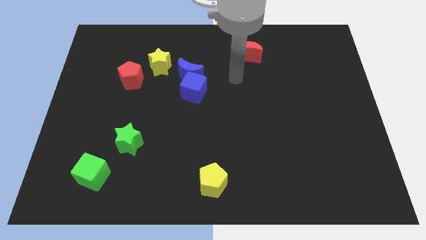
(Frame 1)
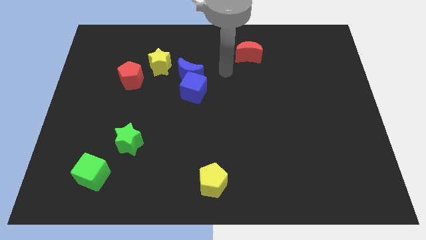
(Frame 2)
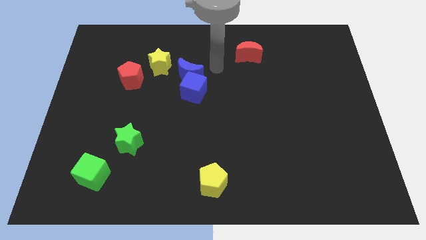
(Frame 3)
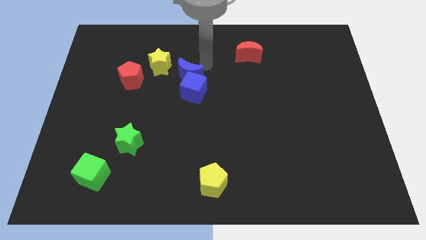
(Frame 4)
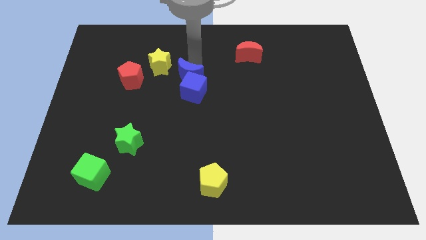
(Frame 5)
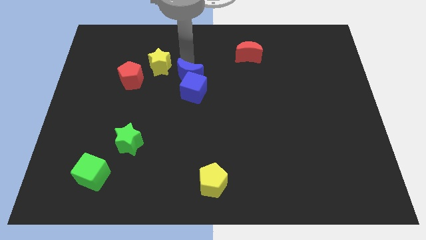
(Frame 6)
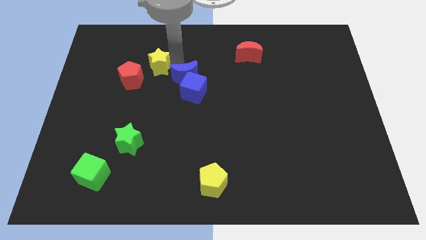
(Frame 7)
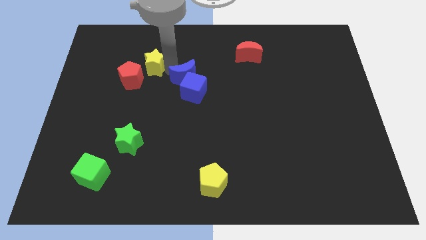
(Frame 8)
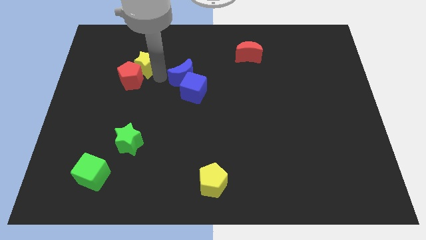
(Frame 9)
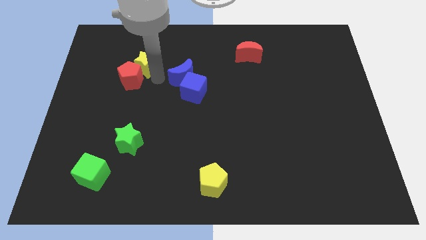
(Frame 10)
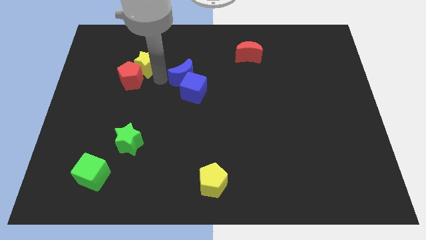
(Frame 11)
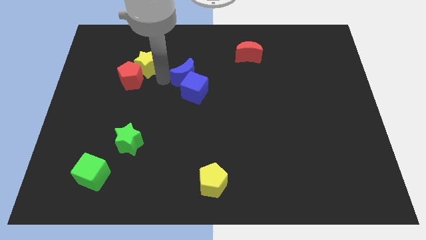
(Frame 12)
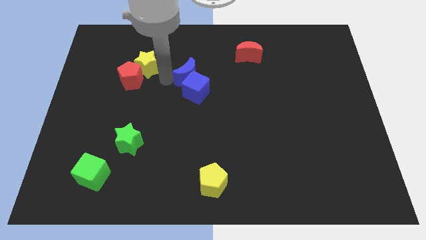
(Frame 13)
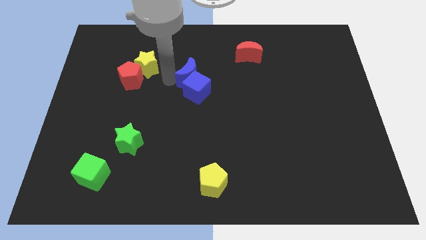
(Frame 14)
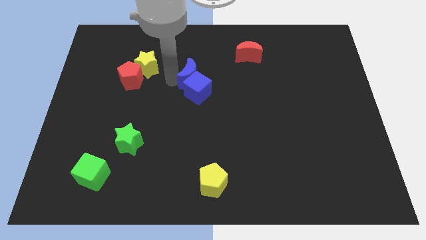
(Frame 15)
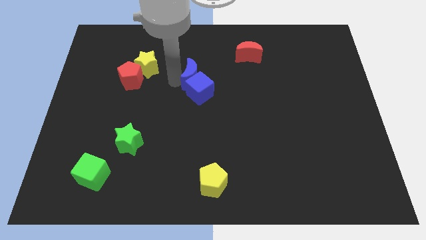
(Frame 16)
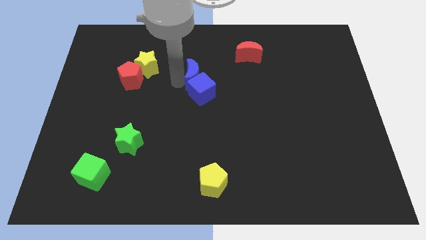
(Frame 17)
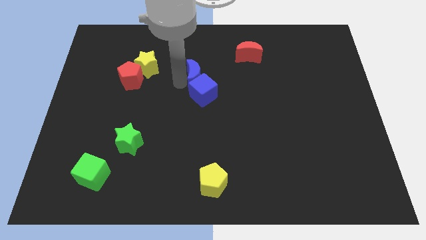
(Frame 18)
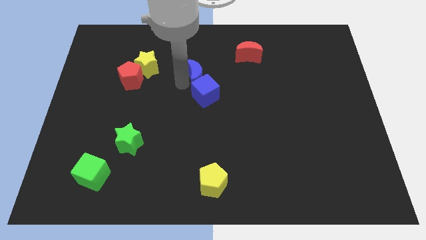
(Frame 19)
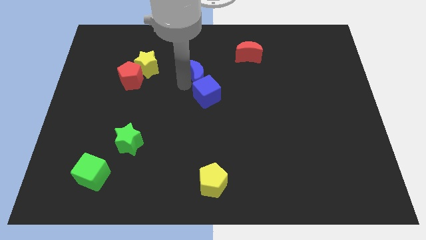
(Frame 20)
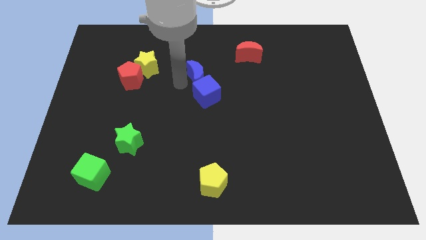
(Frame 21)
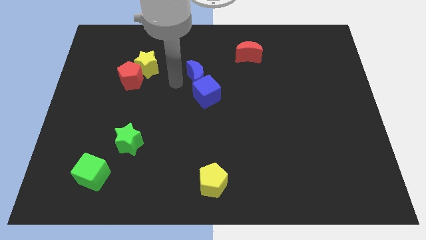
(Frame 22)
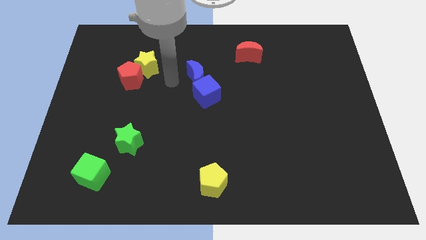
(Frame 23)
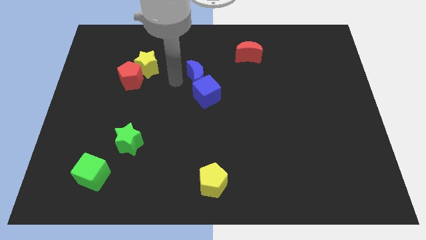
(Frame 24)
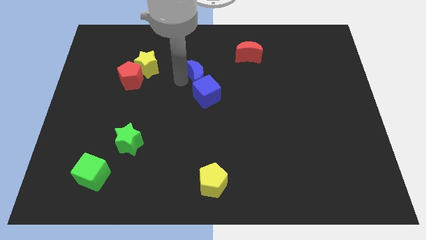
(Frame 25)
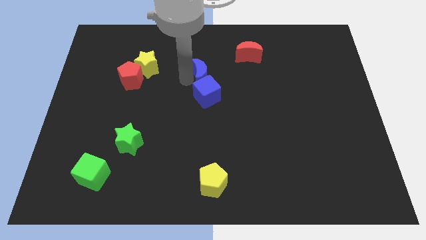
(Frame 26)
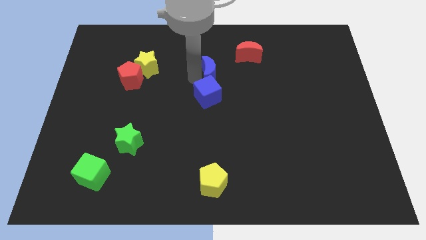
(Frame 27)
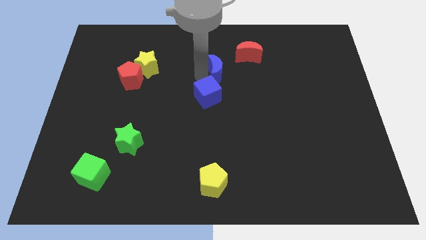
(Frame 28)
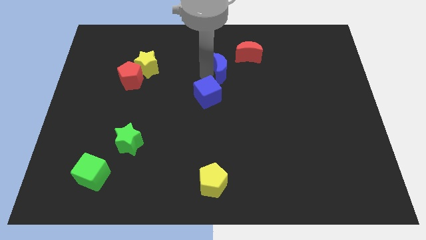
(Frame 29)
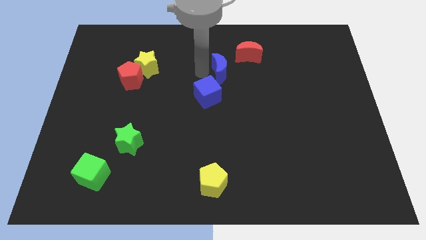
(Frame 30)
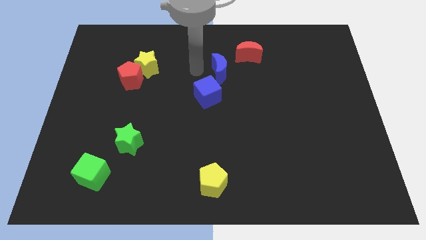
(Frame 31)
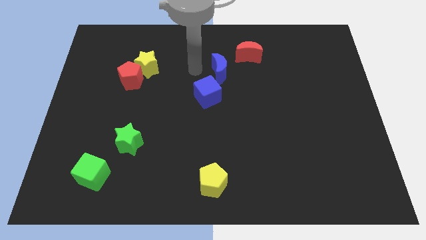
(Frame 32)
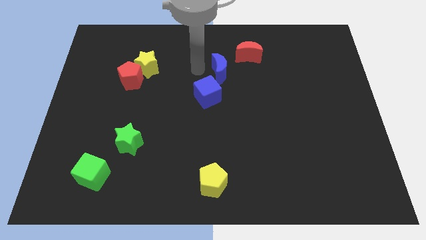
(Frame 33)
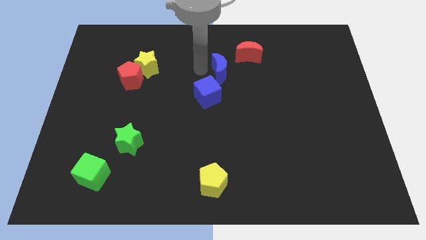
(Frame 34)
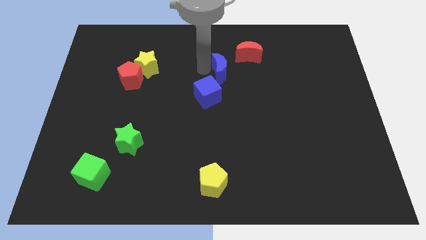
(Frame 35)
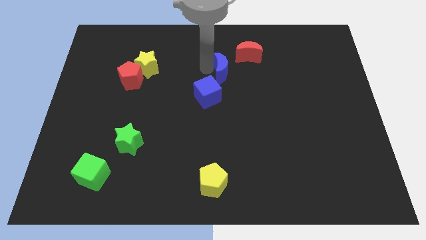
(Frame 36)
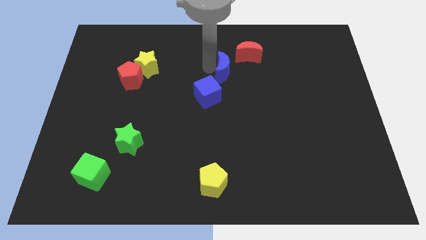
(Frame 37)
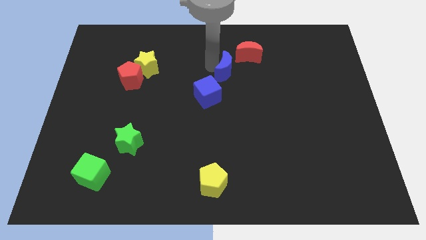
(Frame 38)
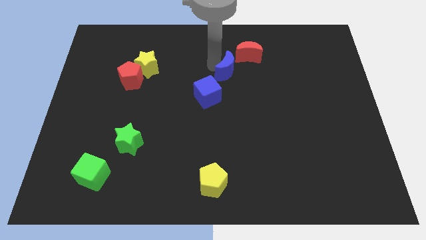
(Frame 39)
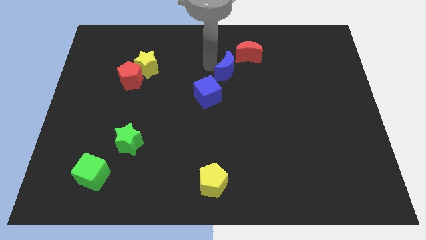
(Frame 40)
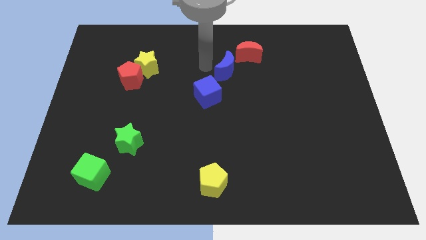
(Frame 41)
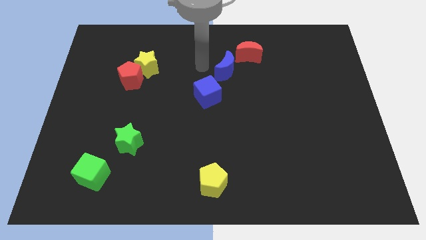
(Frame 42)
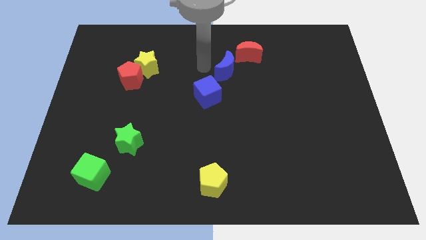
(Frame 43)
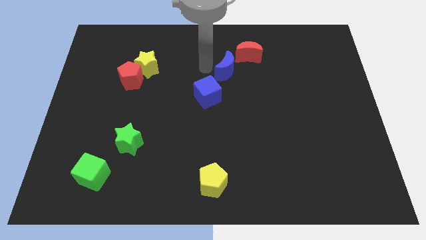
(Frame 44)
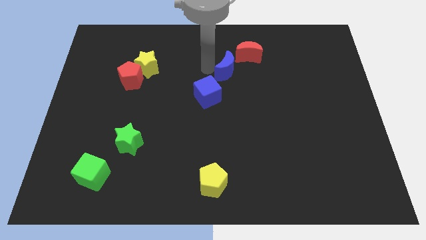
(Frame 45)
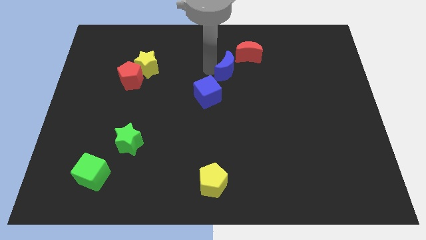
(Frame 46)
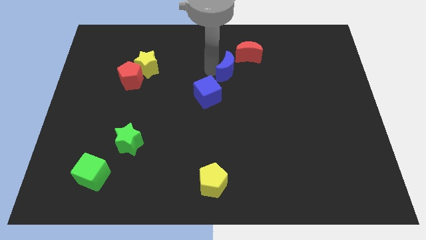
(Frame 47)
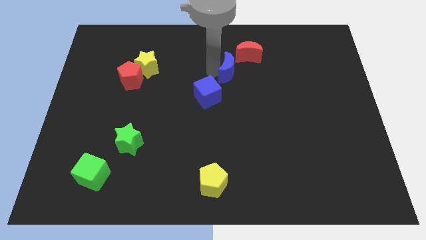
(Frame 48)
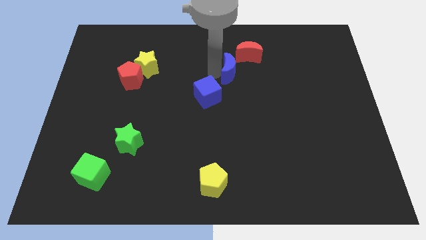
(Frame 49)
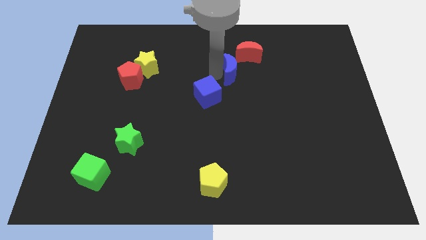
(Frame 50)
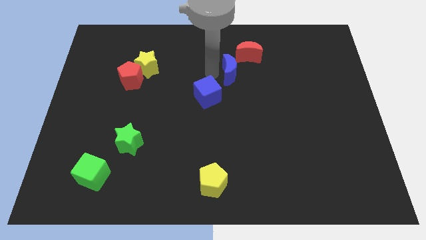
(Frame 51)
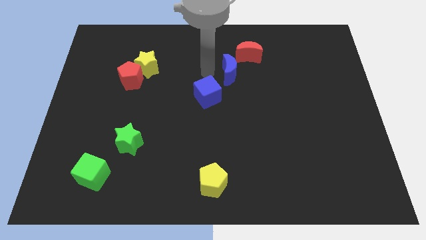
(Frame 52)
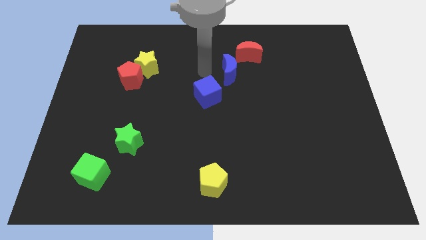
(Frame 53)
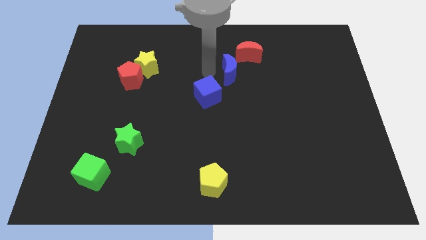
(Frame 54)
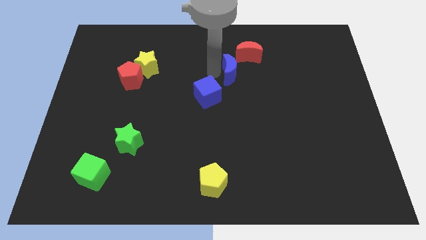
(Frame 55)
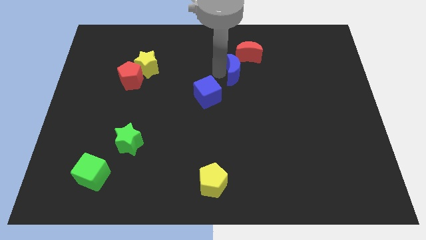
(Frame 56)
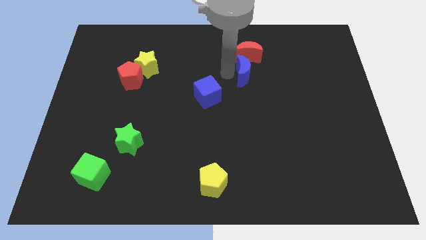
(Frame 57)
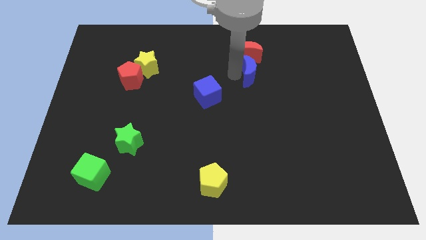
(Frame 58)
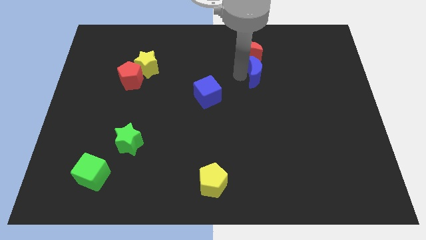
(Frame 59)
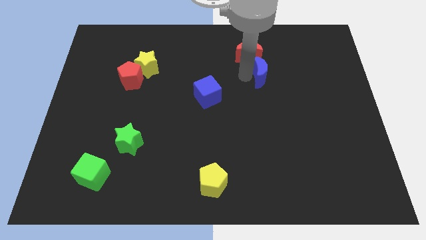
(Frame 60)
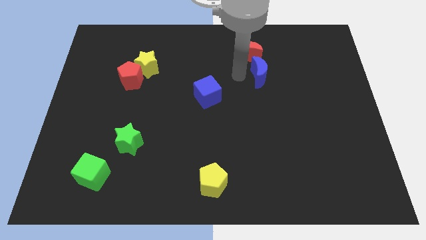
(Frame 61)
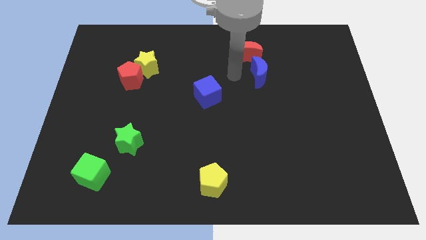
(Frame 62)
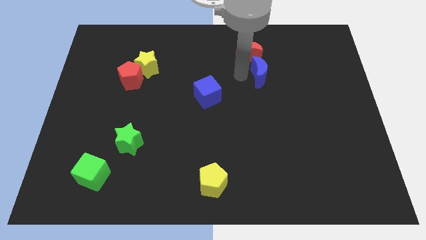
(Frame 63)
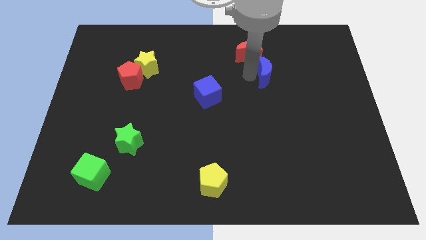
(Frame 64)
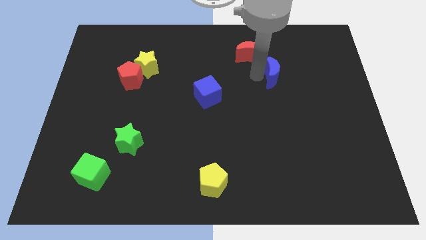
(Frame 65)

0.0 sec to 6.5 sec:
move the blue moon right

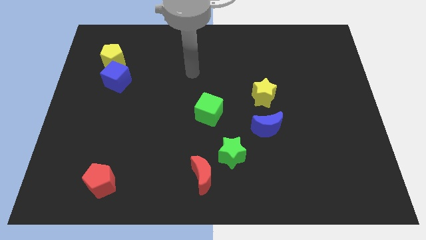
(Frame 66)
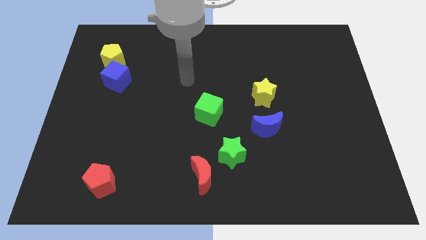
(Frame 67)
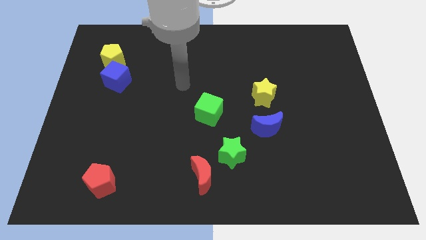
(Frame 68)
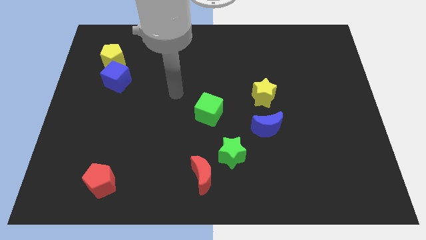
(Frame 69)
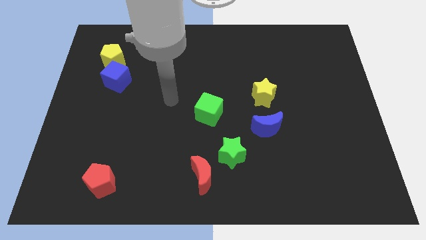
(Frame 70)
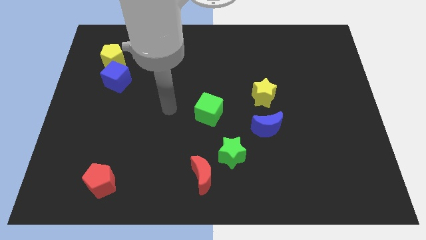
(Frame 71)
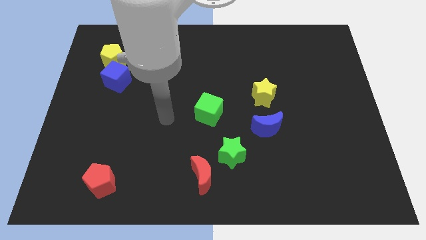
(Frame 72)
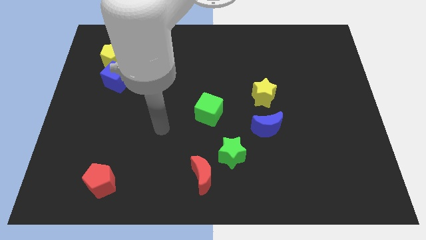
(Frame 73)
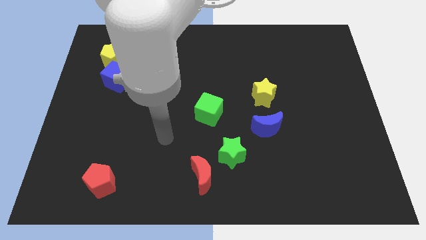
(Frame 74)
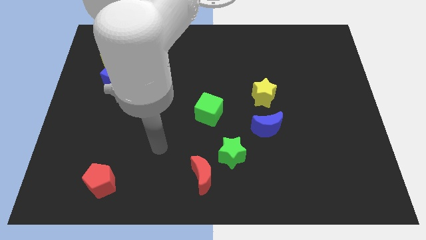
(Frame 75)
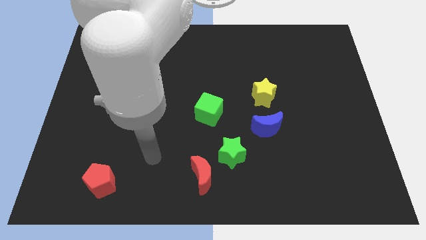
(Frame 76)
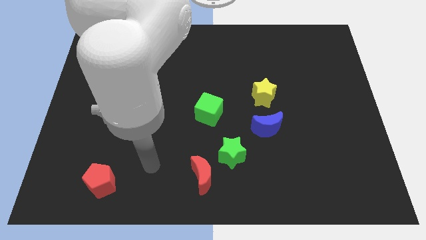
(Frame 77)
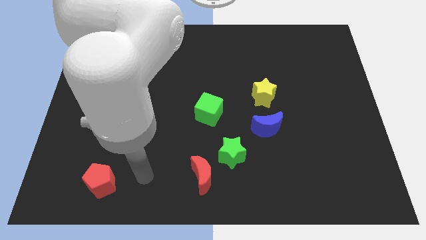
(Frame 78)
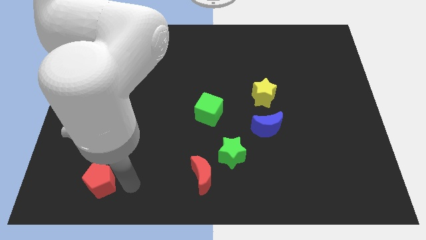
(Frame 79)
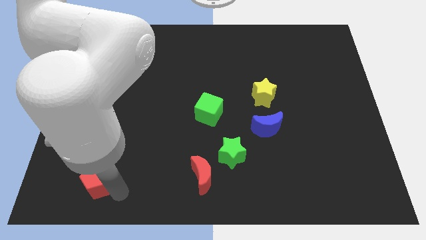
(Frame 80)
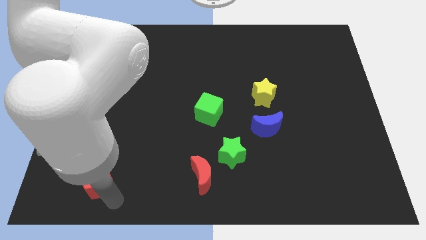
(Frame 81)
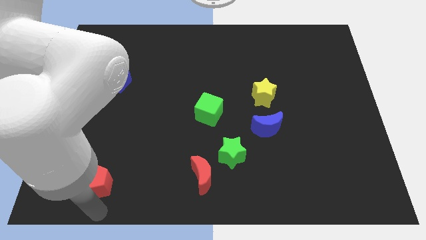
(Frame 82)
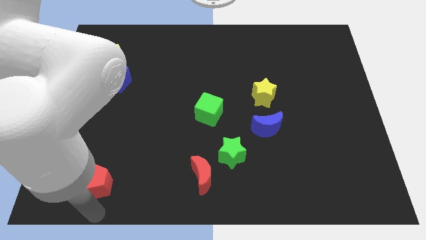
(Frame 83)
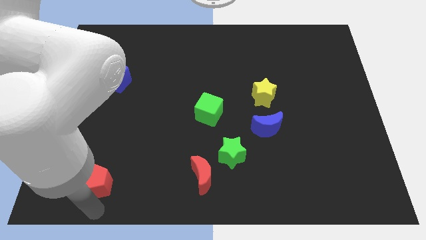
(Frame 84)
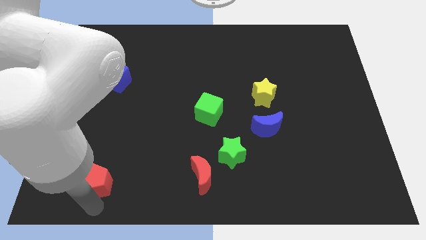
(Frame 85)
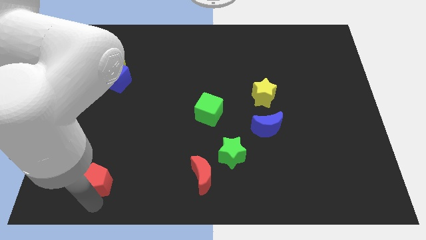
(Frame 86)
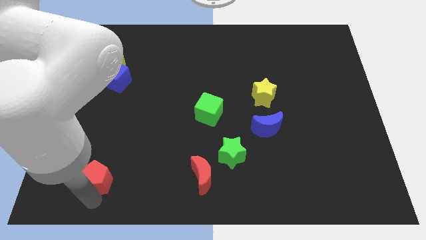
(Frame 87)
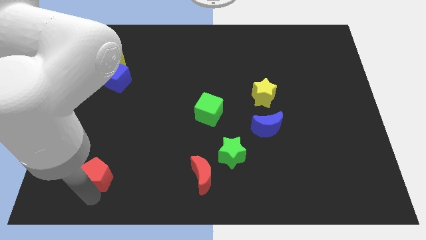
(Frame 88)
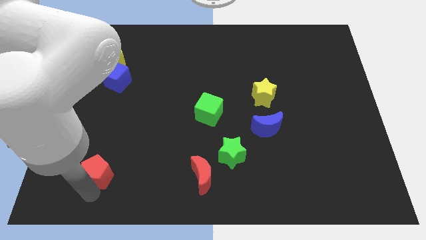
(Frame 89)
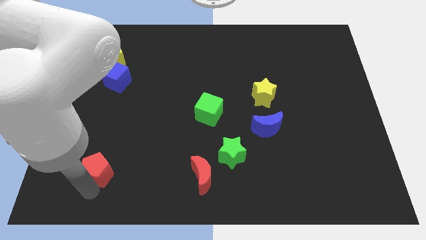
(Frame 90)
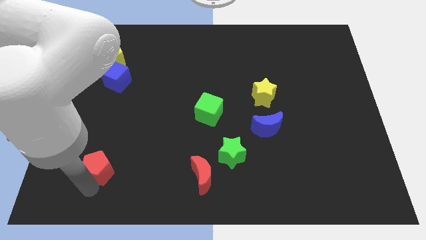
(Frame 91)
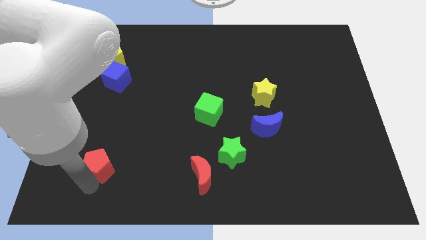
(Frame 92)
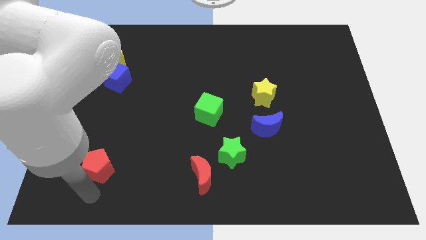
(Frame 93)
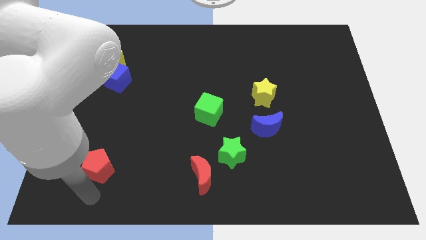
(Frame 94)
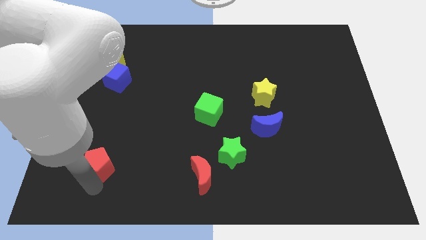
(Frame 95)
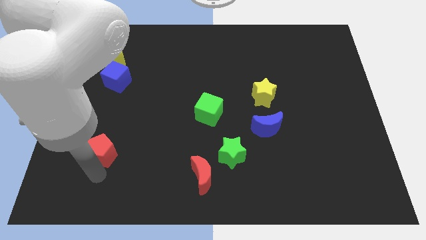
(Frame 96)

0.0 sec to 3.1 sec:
slightly push the red pentagon up
